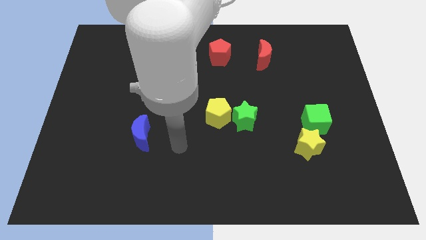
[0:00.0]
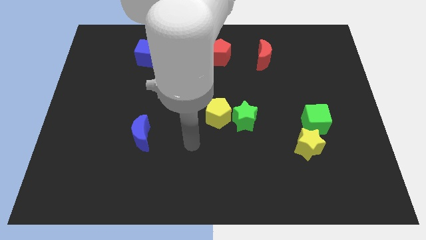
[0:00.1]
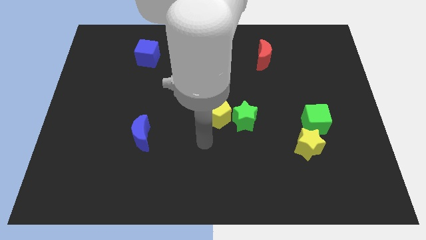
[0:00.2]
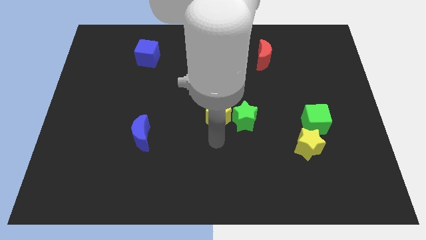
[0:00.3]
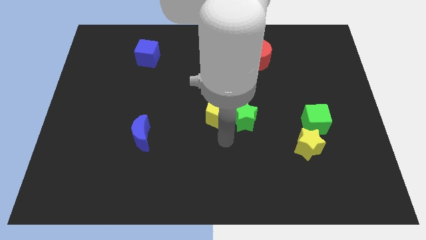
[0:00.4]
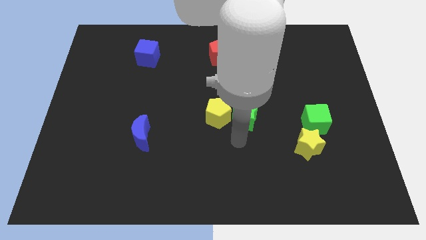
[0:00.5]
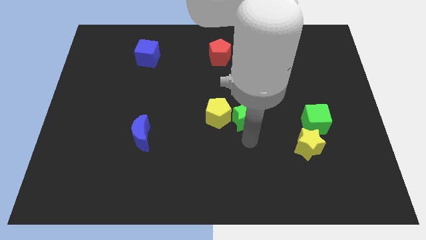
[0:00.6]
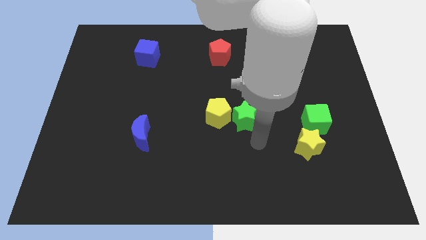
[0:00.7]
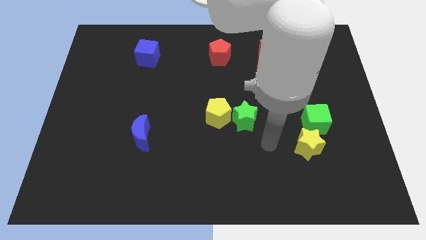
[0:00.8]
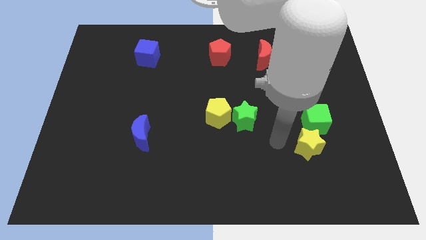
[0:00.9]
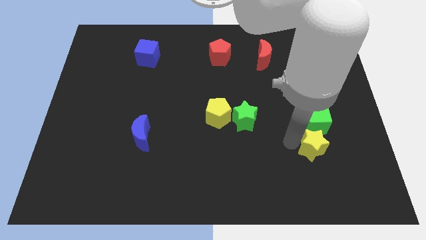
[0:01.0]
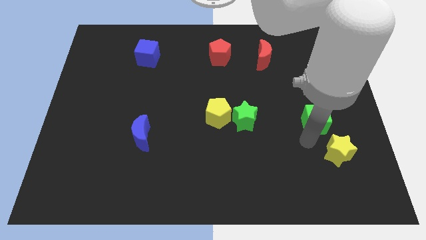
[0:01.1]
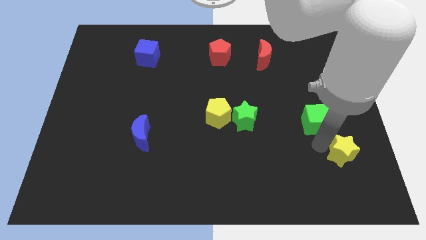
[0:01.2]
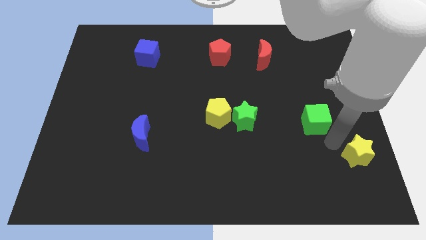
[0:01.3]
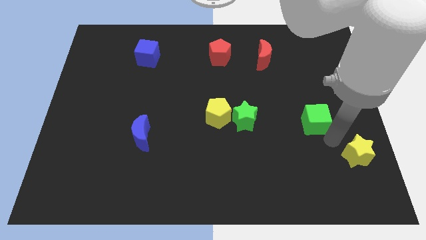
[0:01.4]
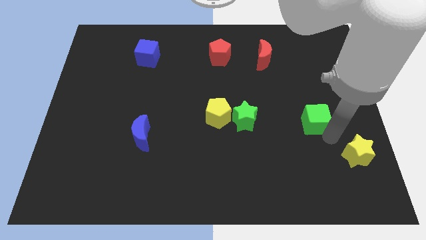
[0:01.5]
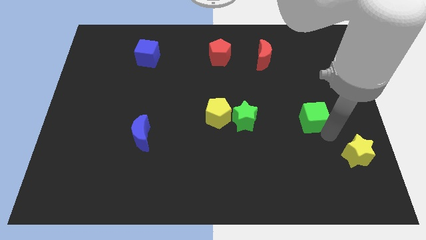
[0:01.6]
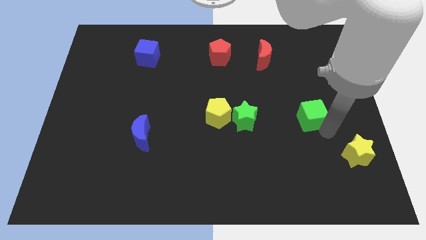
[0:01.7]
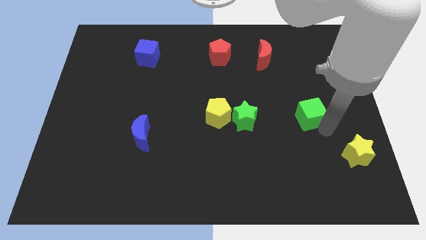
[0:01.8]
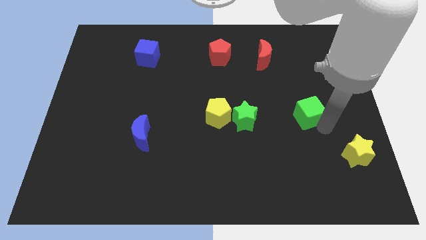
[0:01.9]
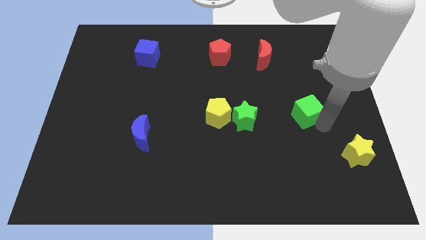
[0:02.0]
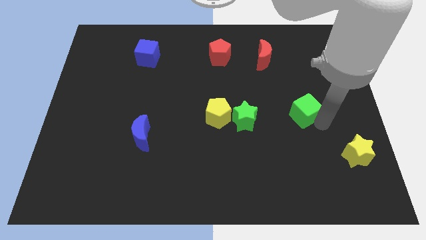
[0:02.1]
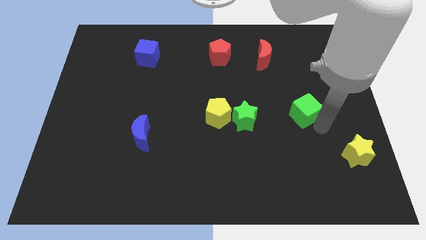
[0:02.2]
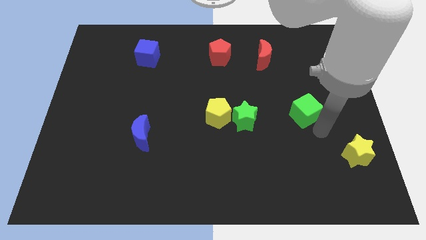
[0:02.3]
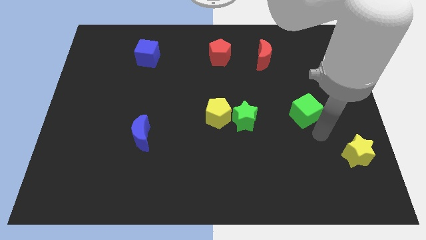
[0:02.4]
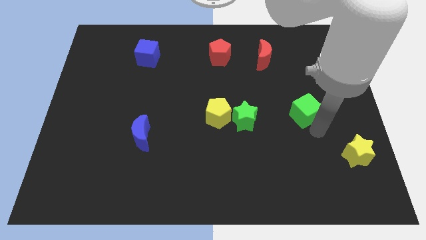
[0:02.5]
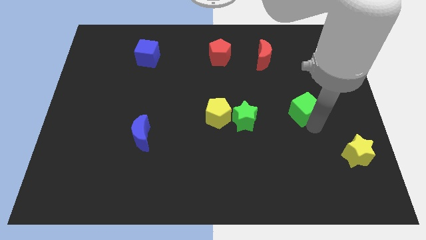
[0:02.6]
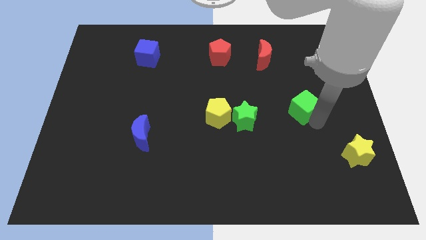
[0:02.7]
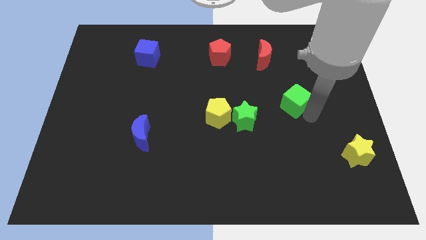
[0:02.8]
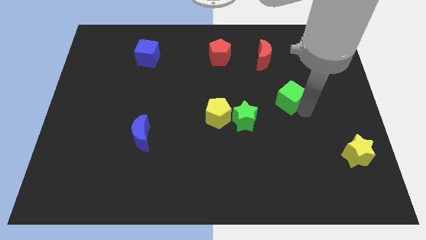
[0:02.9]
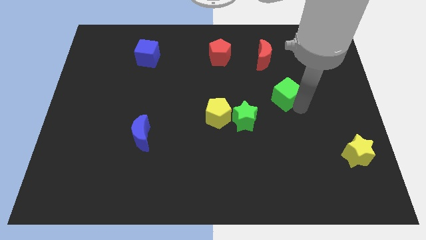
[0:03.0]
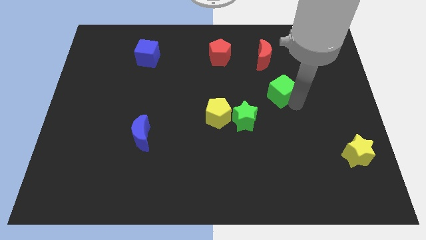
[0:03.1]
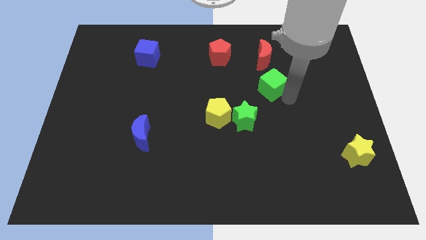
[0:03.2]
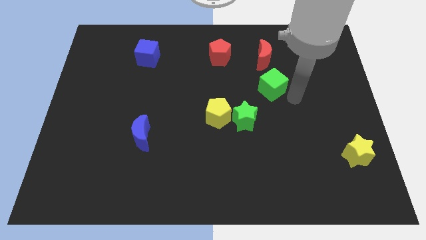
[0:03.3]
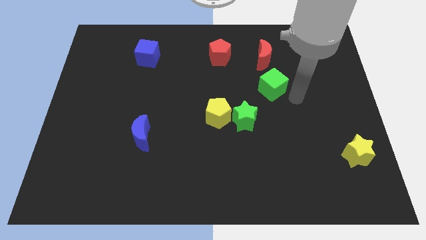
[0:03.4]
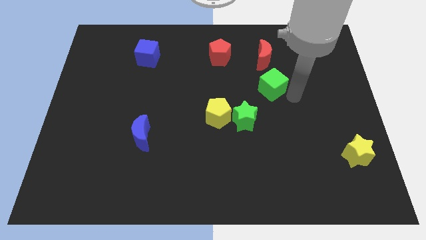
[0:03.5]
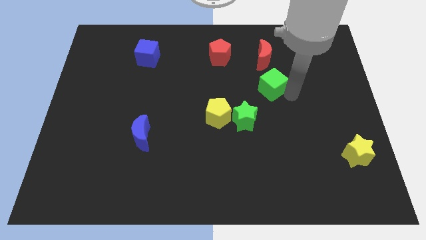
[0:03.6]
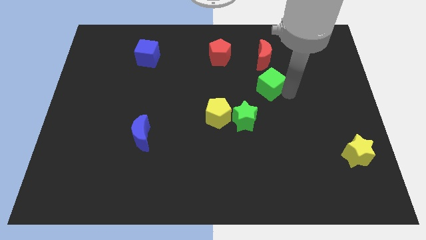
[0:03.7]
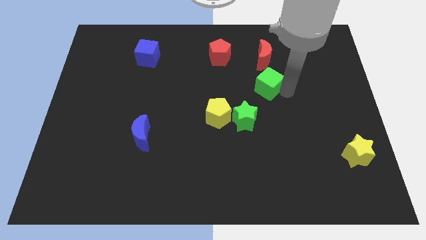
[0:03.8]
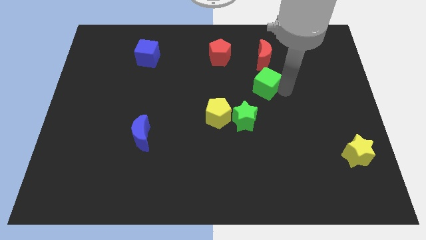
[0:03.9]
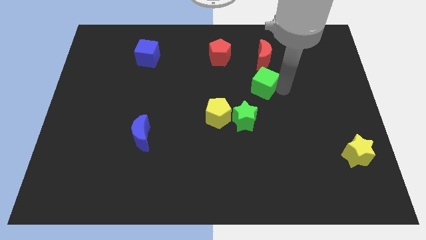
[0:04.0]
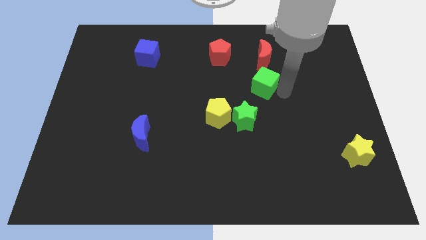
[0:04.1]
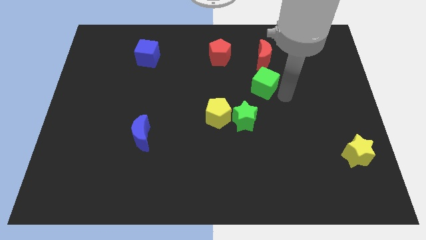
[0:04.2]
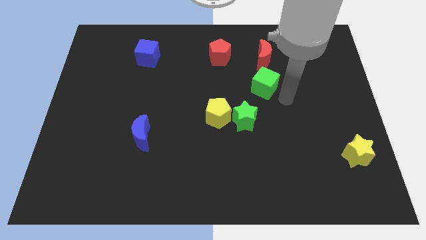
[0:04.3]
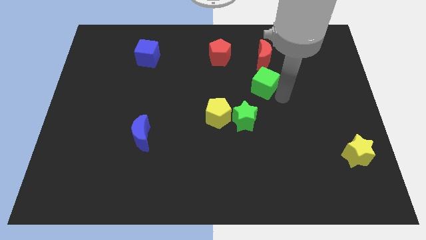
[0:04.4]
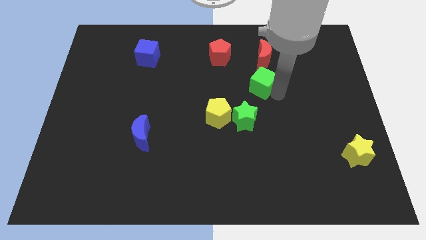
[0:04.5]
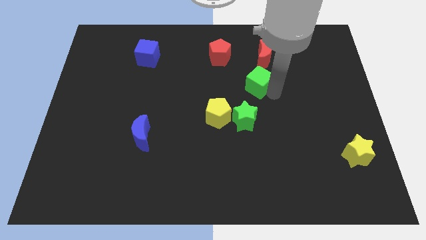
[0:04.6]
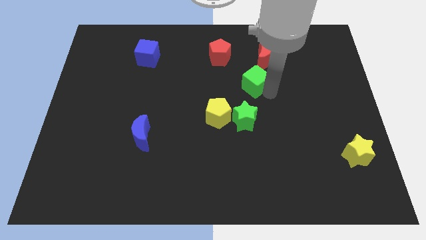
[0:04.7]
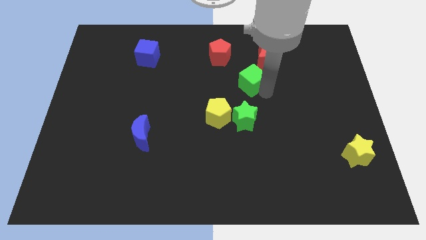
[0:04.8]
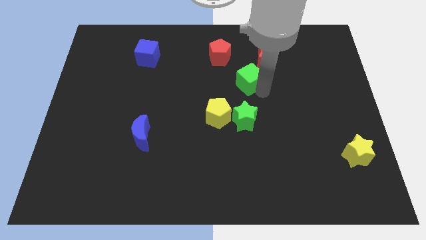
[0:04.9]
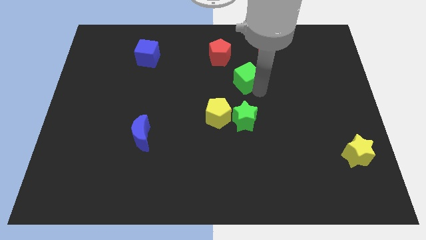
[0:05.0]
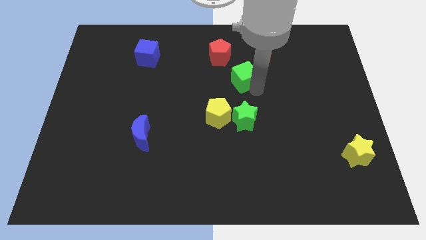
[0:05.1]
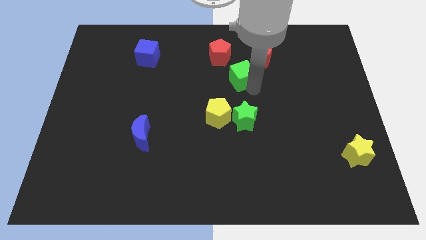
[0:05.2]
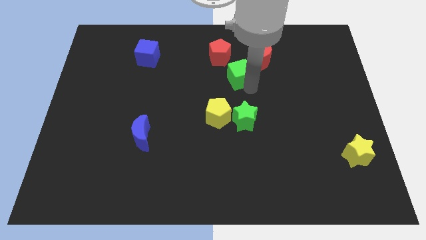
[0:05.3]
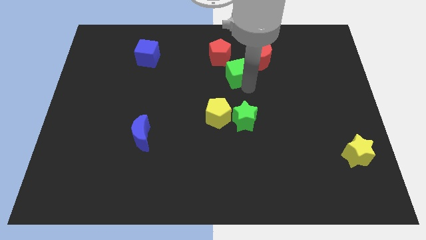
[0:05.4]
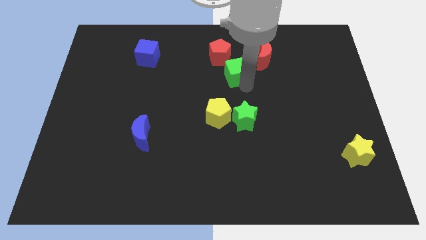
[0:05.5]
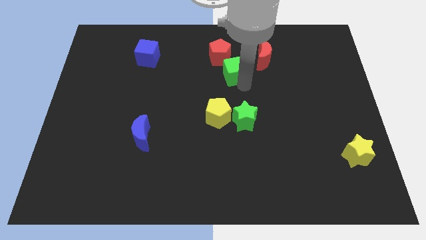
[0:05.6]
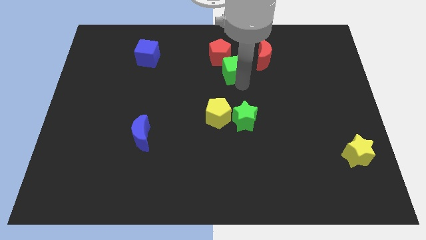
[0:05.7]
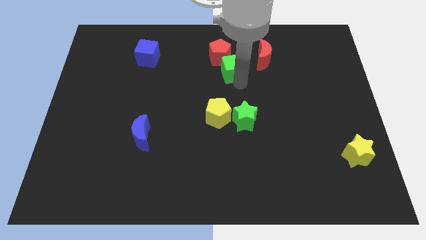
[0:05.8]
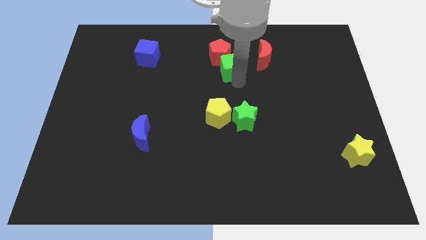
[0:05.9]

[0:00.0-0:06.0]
move the green cube next to the red pentagon

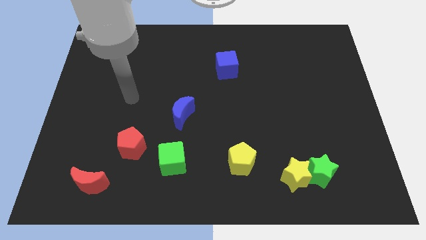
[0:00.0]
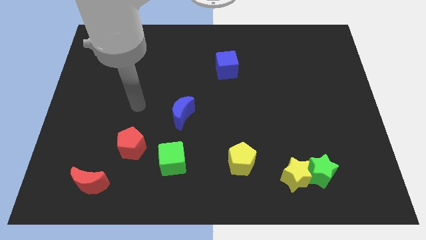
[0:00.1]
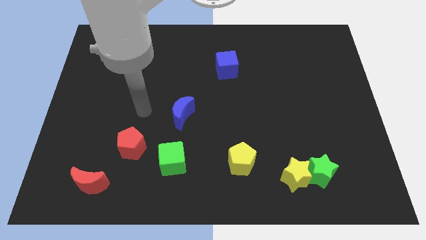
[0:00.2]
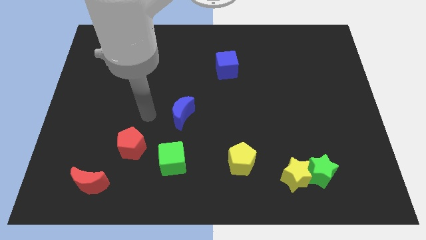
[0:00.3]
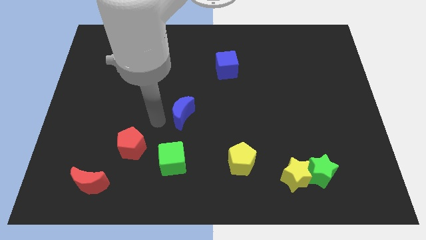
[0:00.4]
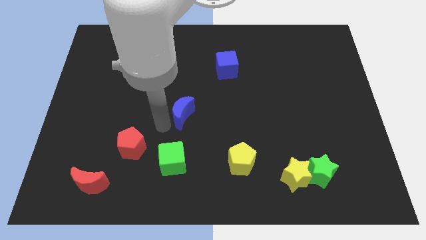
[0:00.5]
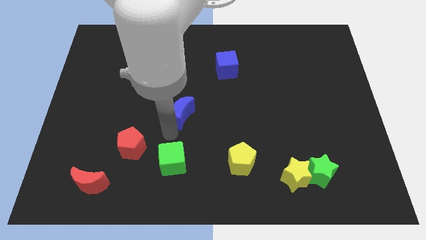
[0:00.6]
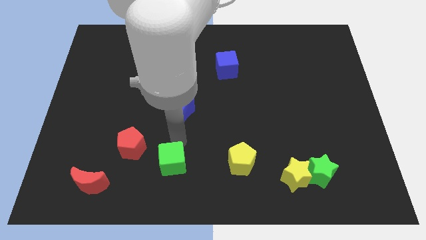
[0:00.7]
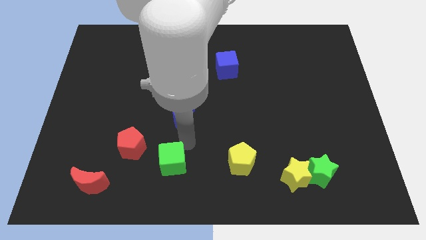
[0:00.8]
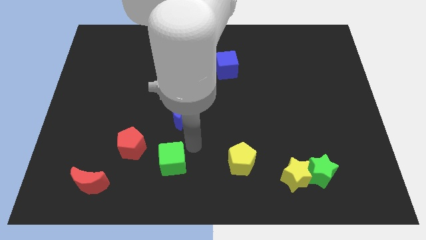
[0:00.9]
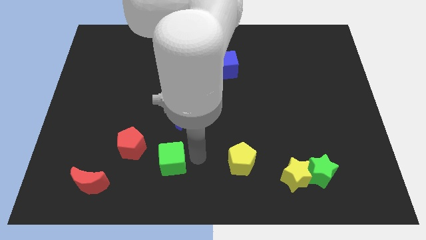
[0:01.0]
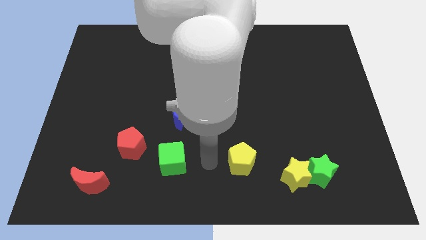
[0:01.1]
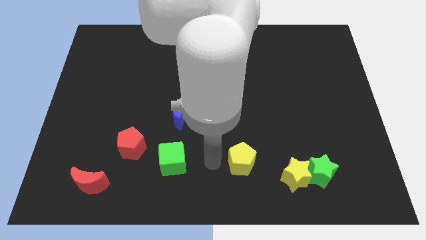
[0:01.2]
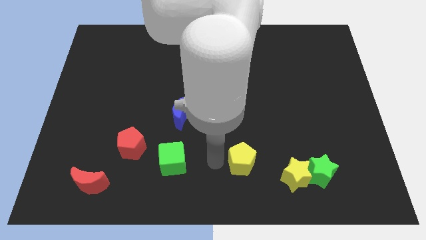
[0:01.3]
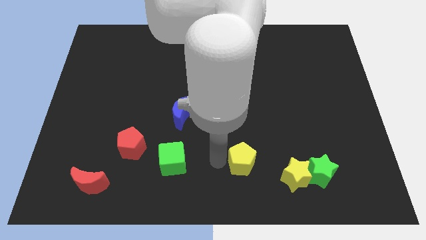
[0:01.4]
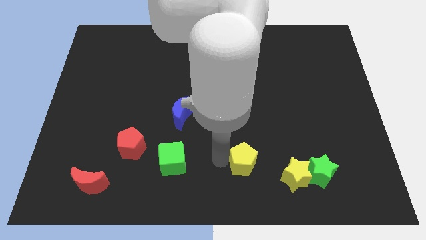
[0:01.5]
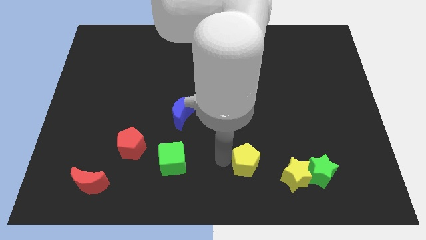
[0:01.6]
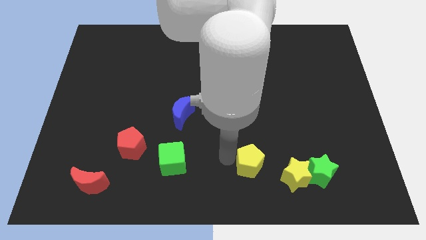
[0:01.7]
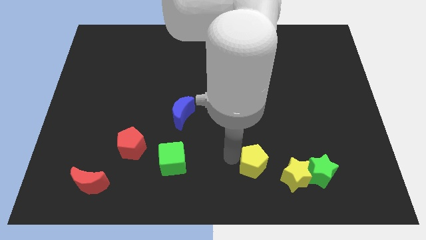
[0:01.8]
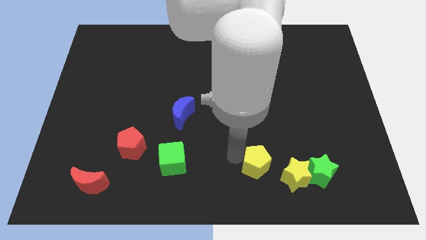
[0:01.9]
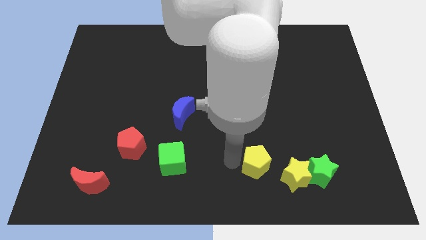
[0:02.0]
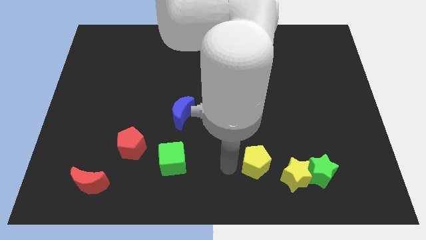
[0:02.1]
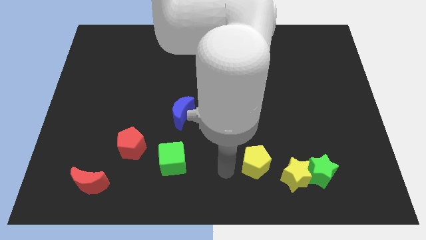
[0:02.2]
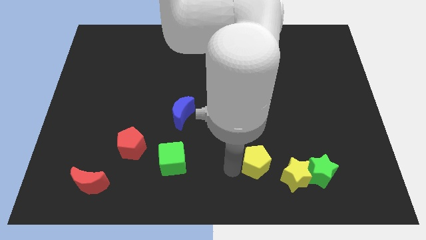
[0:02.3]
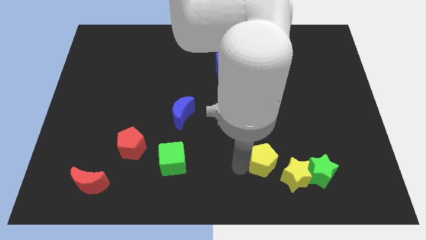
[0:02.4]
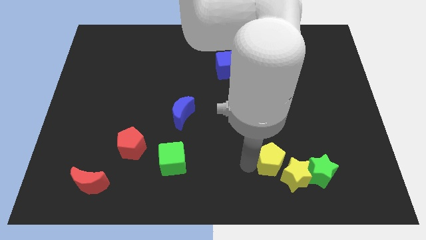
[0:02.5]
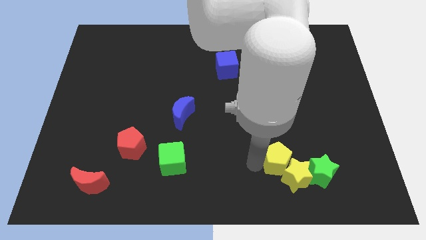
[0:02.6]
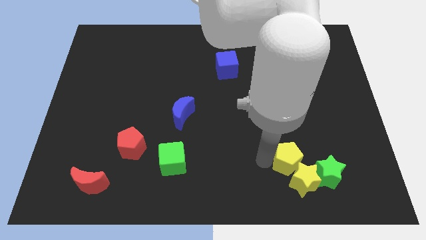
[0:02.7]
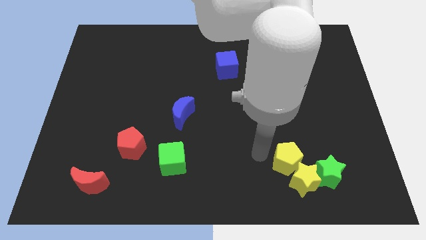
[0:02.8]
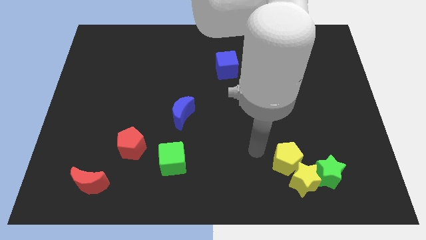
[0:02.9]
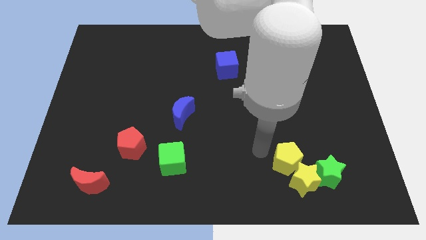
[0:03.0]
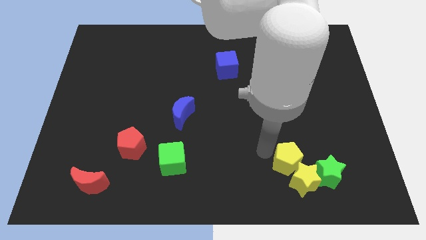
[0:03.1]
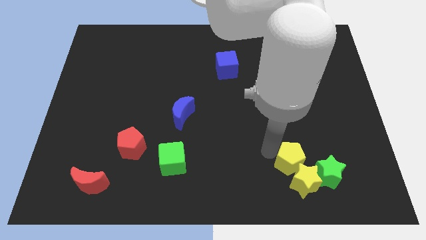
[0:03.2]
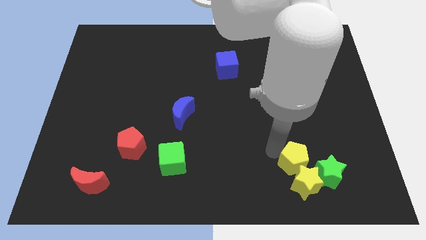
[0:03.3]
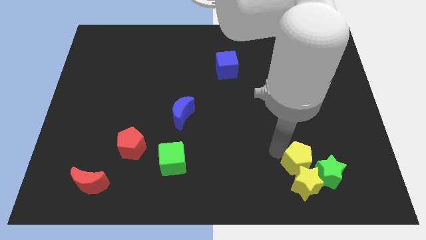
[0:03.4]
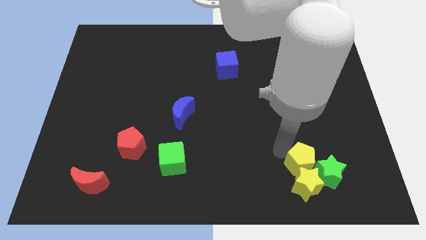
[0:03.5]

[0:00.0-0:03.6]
put the yellow pentagon to the green star
